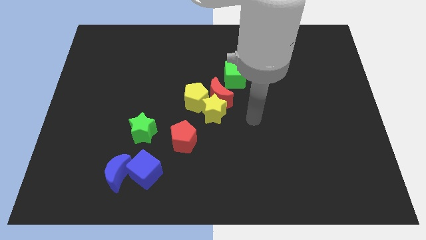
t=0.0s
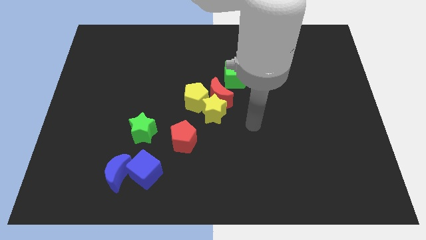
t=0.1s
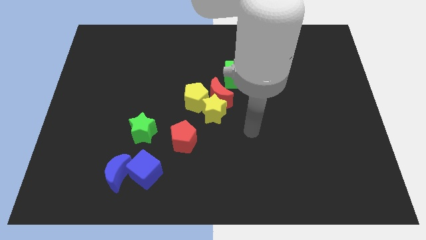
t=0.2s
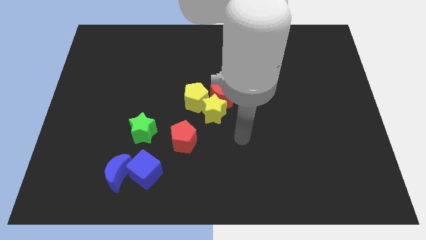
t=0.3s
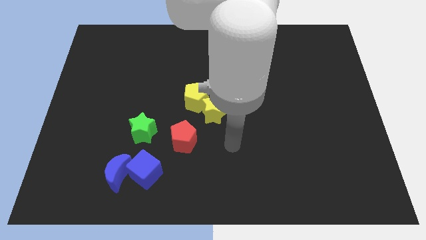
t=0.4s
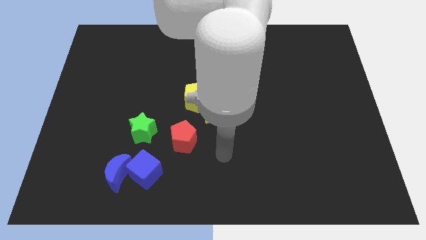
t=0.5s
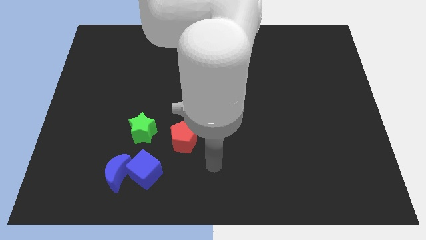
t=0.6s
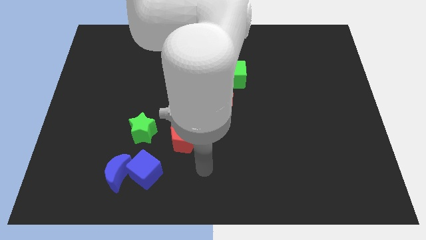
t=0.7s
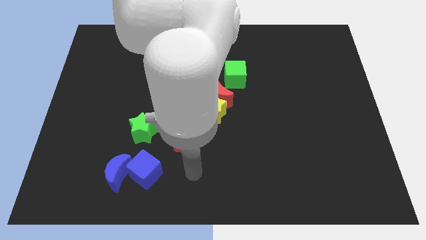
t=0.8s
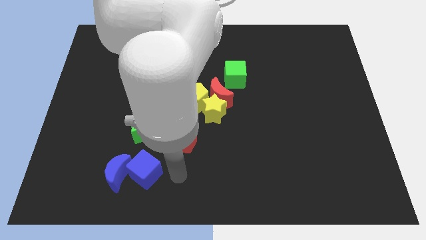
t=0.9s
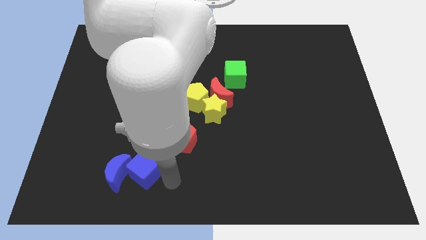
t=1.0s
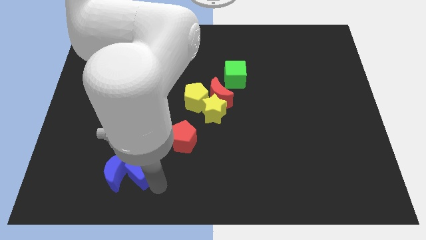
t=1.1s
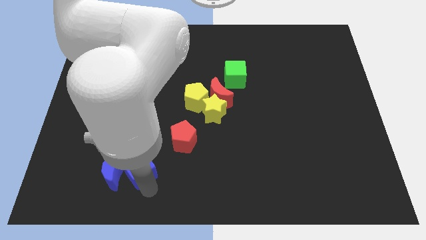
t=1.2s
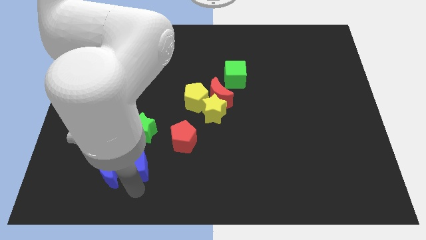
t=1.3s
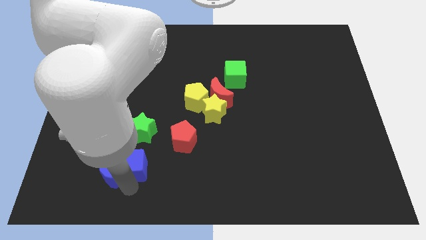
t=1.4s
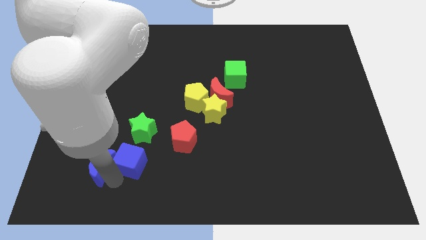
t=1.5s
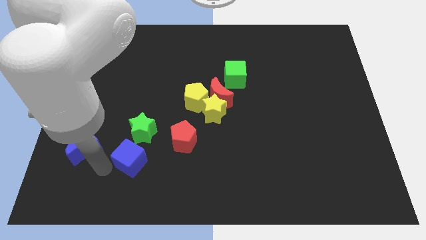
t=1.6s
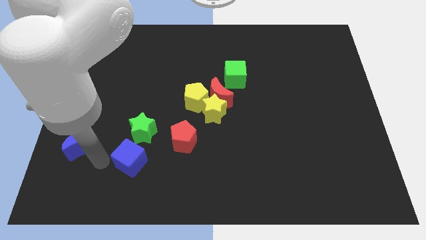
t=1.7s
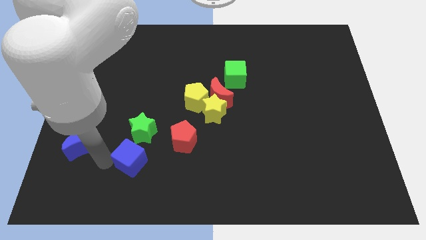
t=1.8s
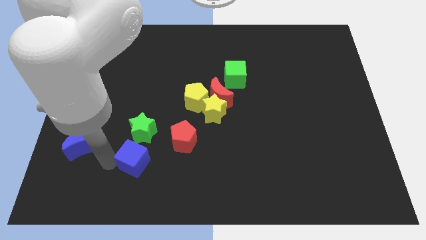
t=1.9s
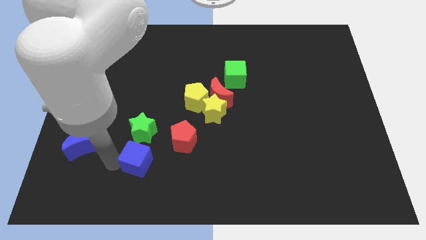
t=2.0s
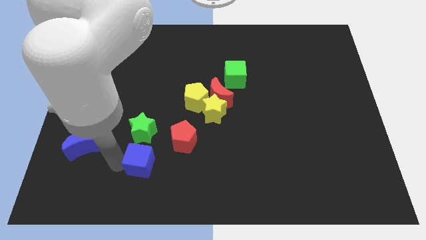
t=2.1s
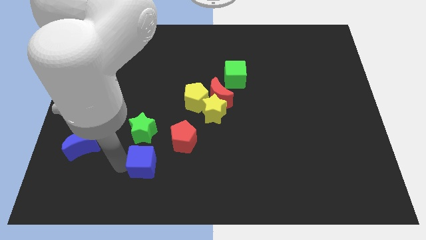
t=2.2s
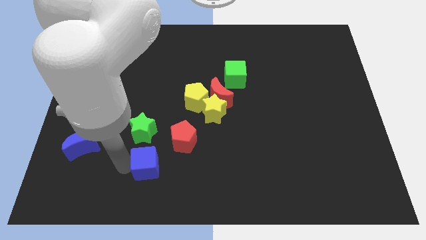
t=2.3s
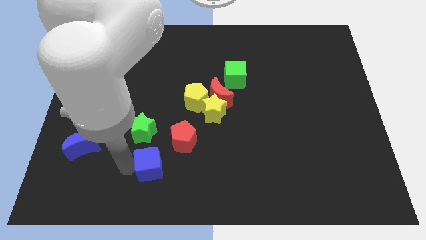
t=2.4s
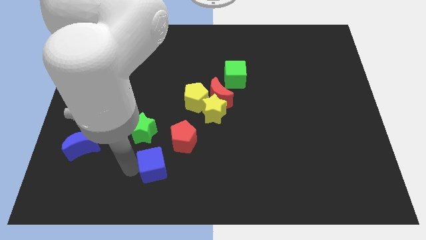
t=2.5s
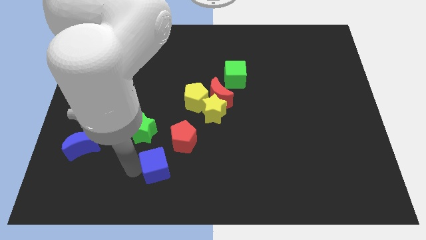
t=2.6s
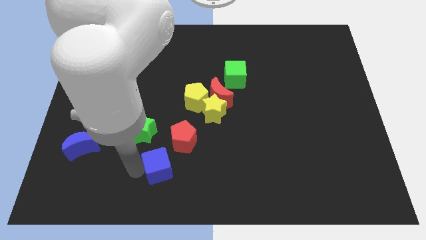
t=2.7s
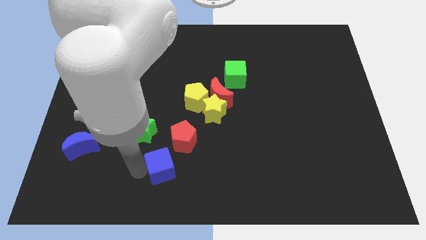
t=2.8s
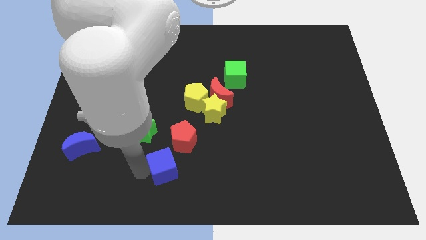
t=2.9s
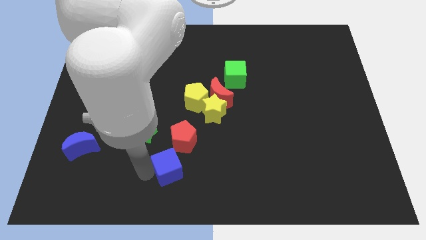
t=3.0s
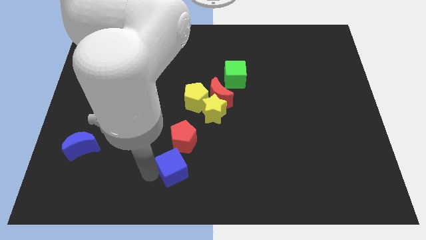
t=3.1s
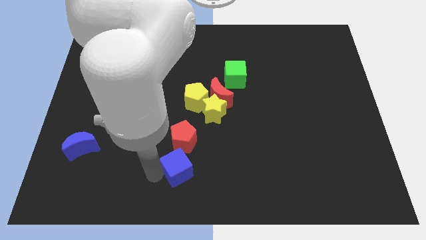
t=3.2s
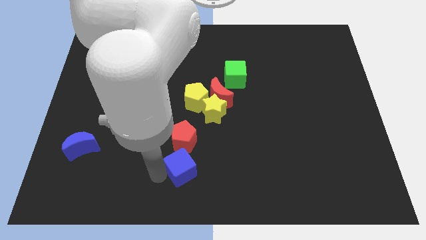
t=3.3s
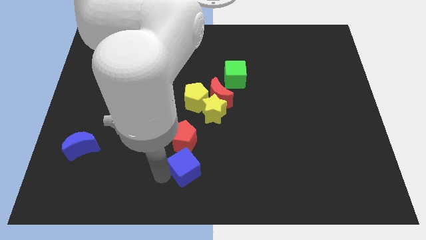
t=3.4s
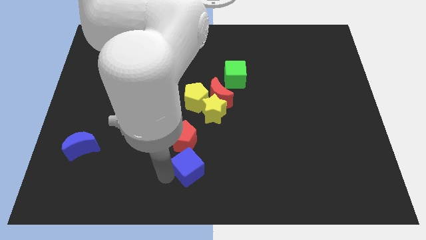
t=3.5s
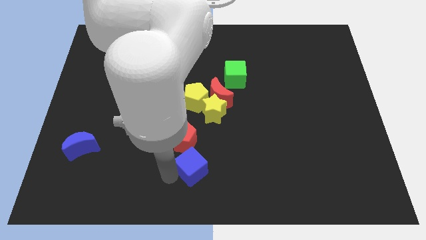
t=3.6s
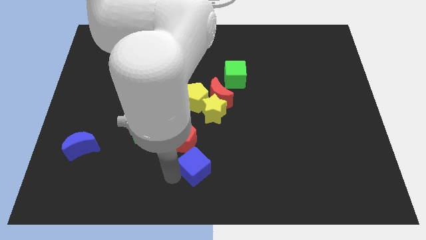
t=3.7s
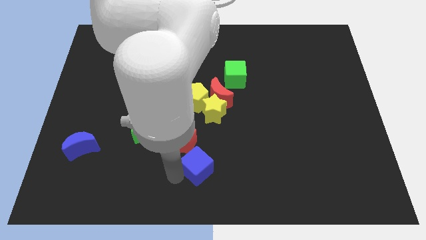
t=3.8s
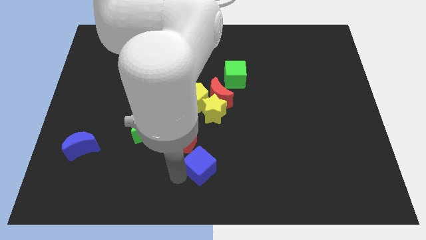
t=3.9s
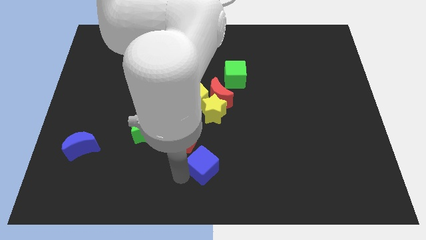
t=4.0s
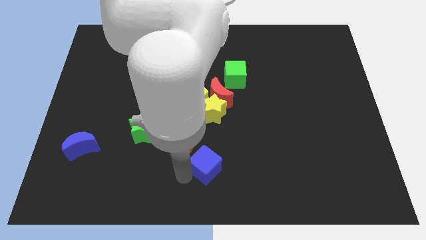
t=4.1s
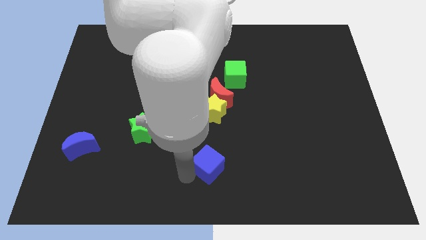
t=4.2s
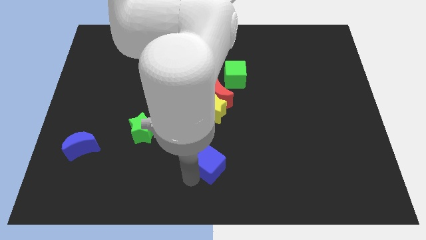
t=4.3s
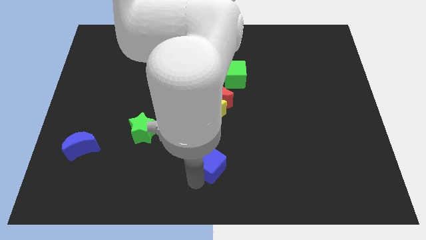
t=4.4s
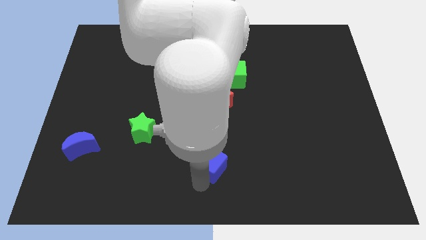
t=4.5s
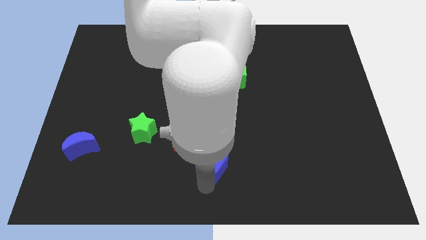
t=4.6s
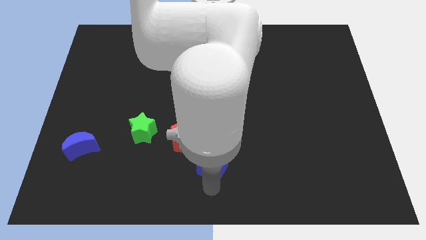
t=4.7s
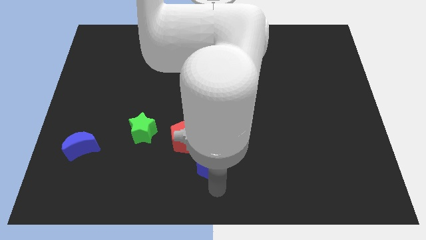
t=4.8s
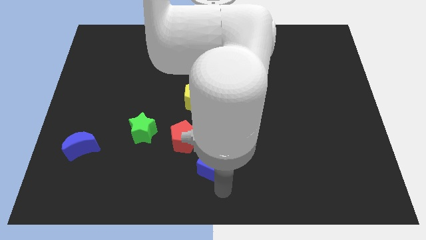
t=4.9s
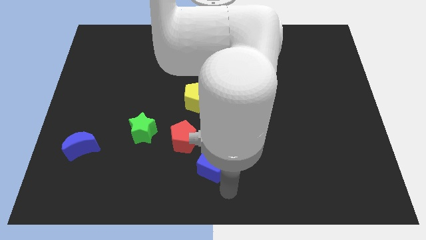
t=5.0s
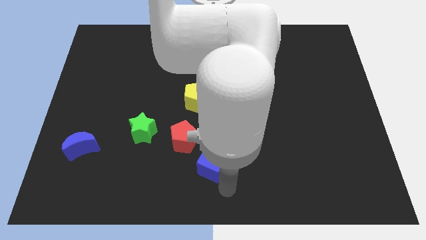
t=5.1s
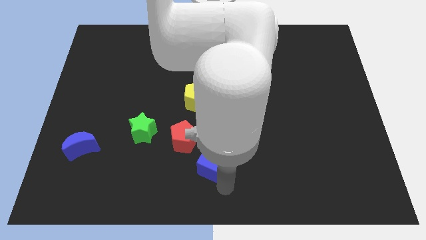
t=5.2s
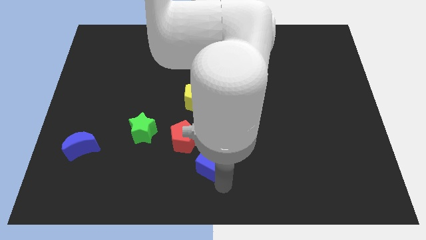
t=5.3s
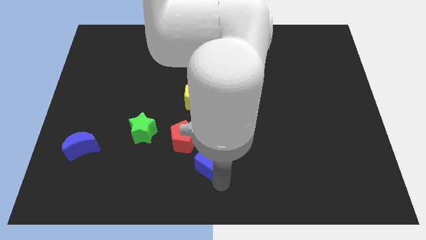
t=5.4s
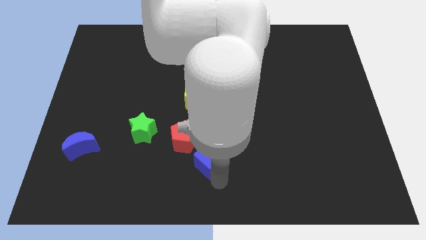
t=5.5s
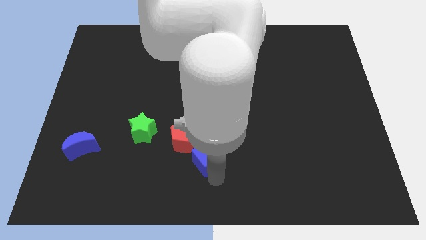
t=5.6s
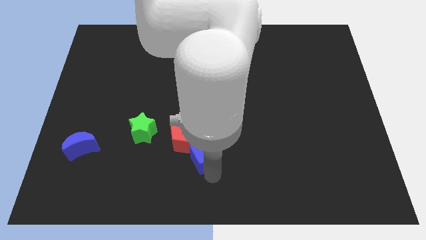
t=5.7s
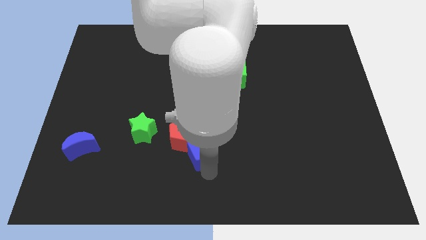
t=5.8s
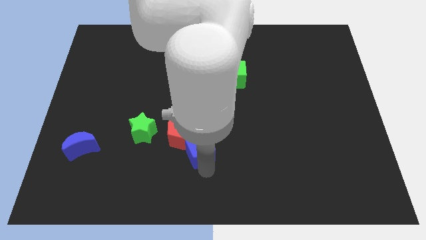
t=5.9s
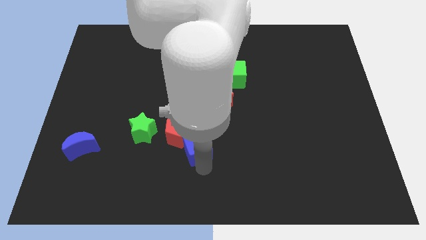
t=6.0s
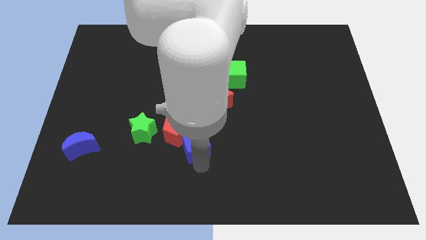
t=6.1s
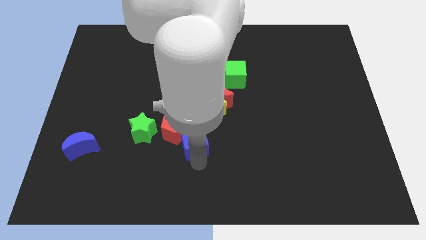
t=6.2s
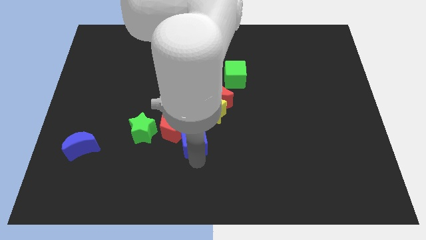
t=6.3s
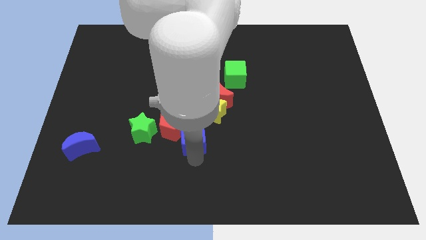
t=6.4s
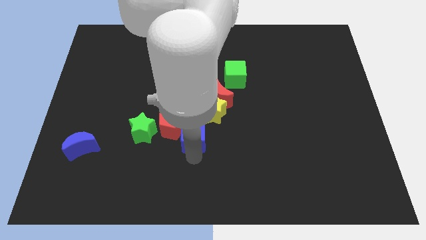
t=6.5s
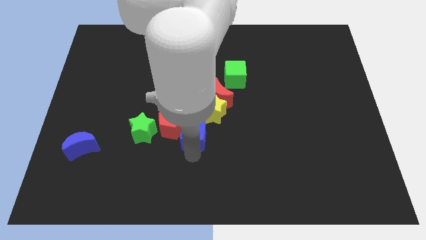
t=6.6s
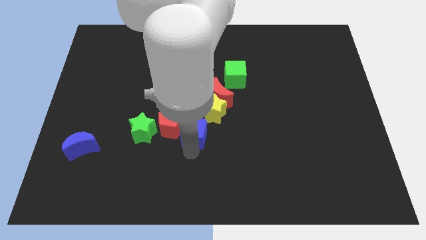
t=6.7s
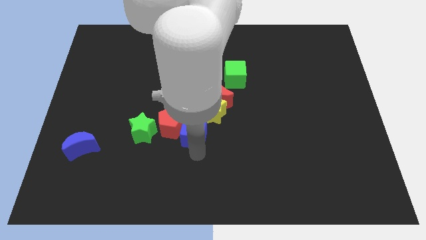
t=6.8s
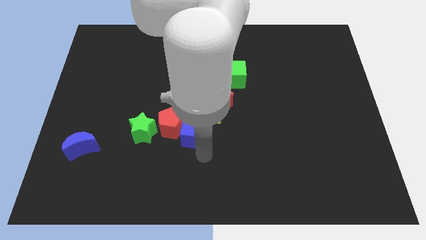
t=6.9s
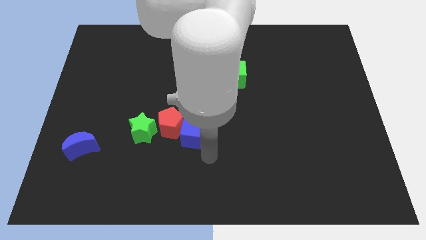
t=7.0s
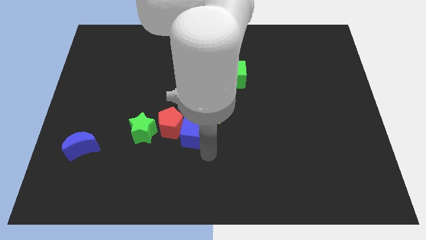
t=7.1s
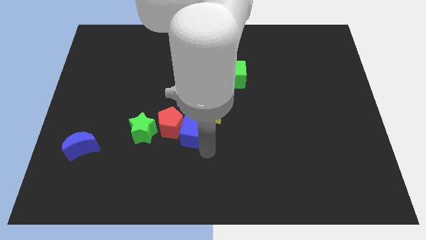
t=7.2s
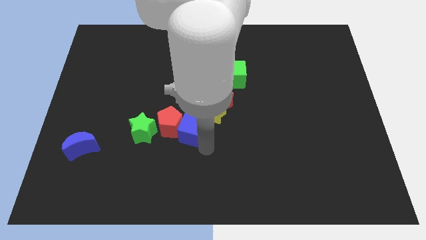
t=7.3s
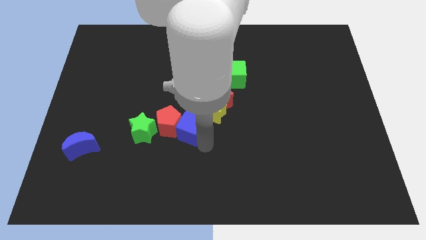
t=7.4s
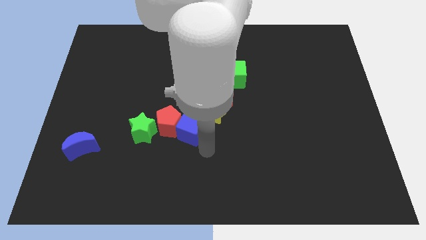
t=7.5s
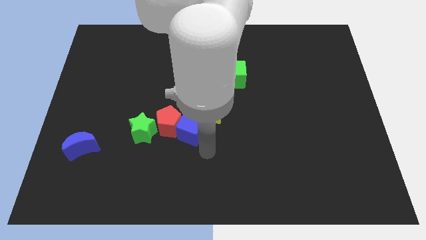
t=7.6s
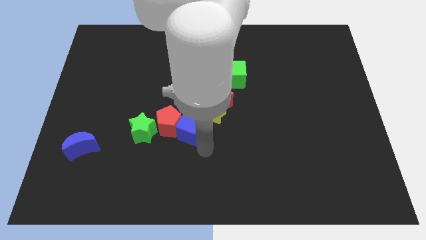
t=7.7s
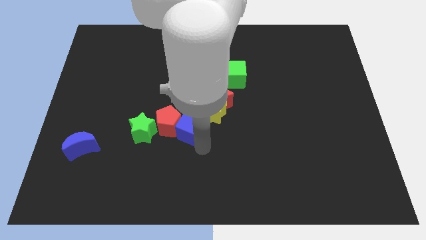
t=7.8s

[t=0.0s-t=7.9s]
move the blue cube a bit up
